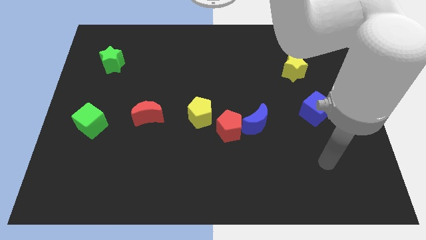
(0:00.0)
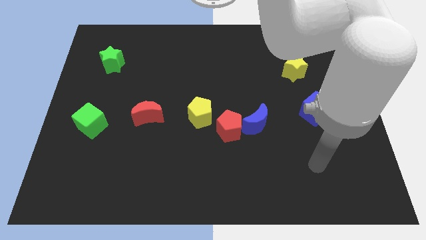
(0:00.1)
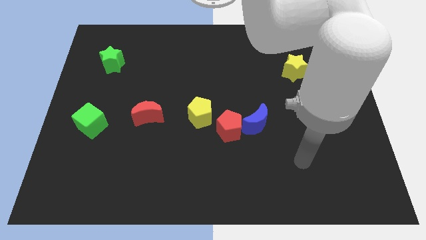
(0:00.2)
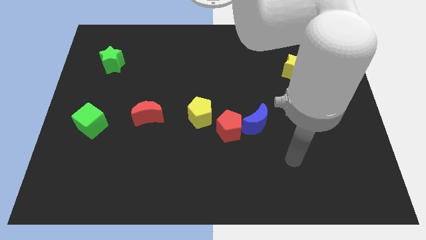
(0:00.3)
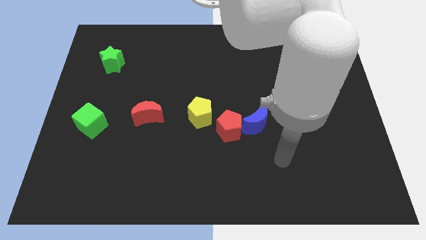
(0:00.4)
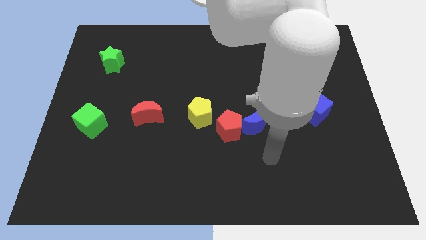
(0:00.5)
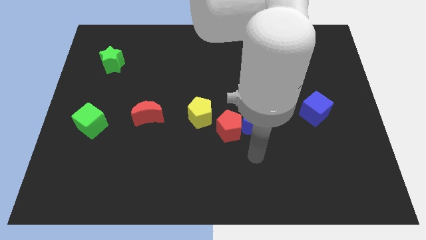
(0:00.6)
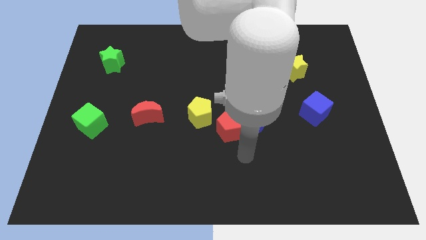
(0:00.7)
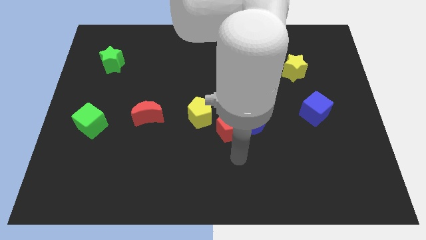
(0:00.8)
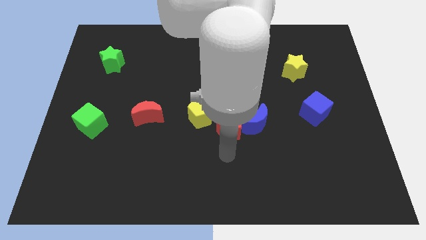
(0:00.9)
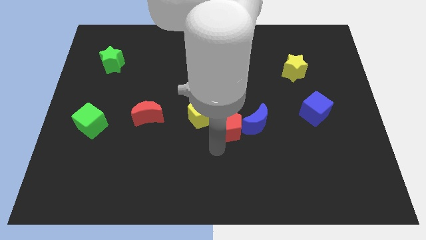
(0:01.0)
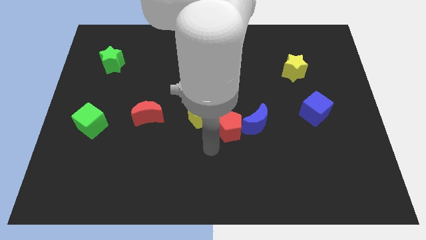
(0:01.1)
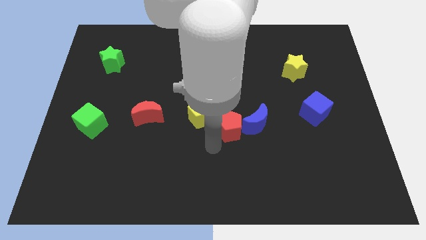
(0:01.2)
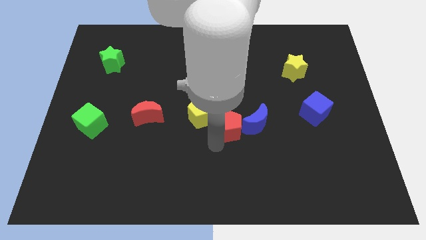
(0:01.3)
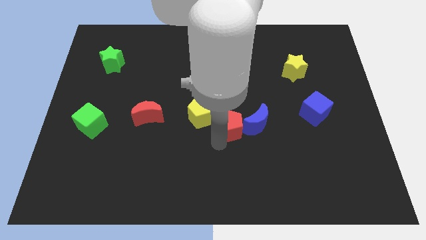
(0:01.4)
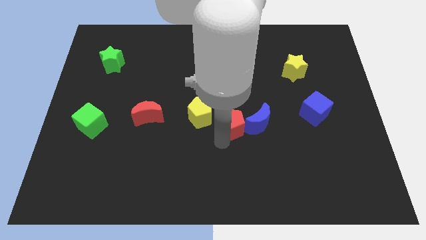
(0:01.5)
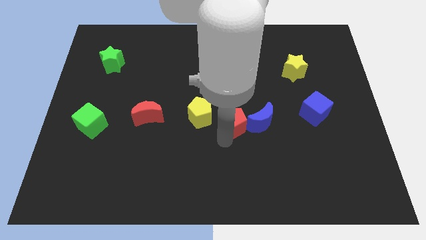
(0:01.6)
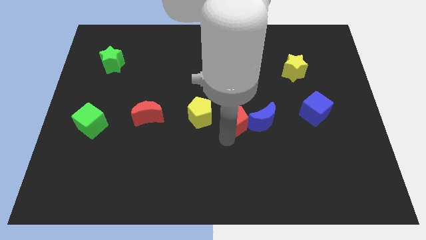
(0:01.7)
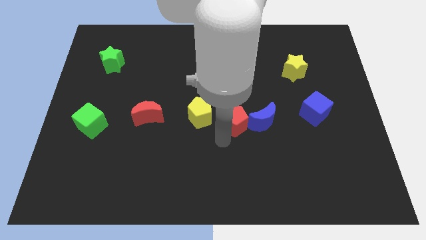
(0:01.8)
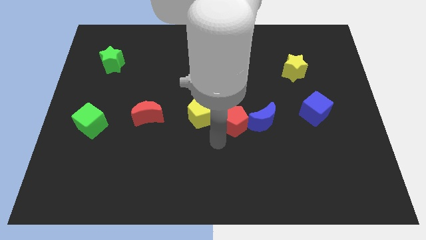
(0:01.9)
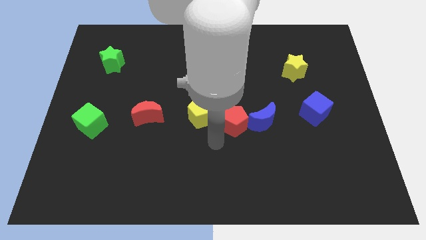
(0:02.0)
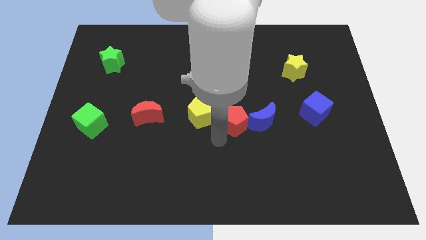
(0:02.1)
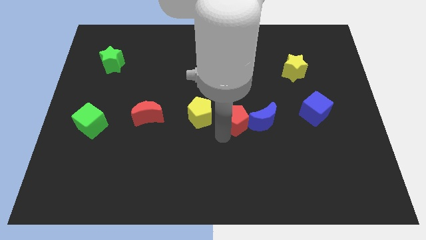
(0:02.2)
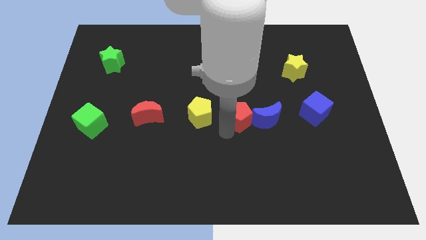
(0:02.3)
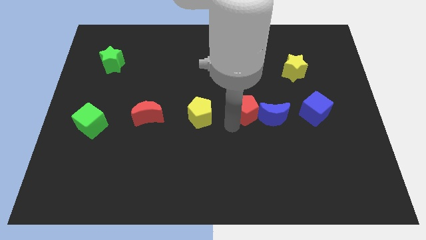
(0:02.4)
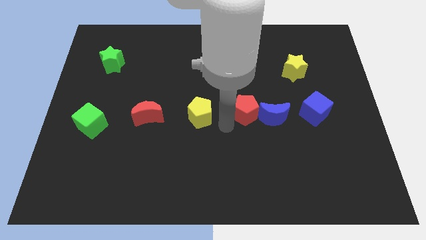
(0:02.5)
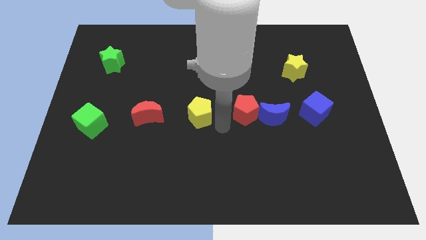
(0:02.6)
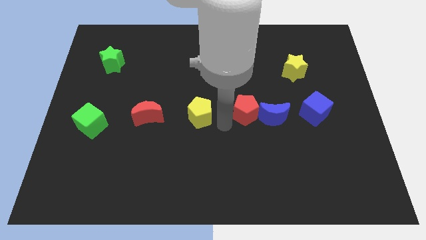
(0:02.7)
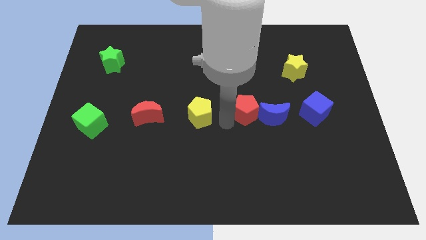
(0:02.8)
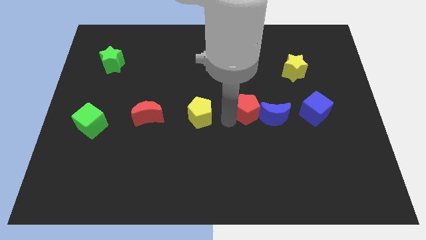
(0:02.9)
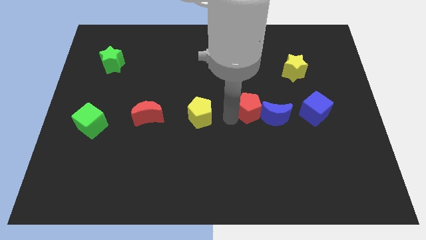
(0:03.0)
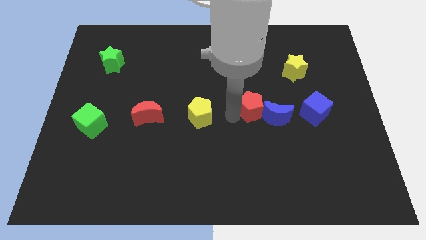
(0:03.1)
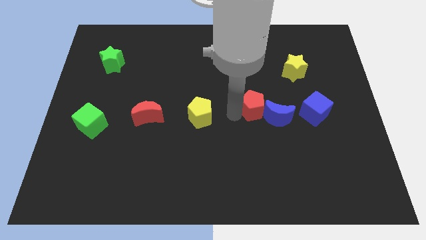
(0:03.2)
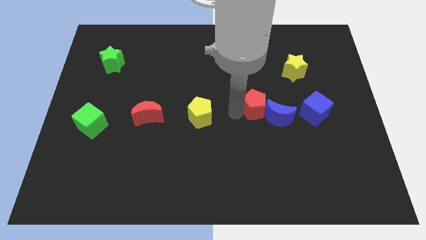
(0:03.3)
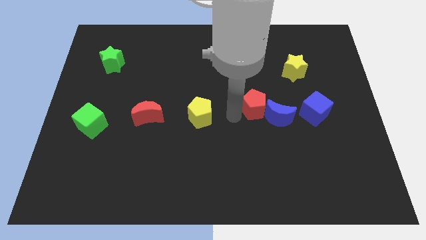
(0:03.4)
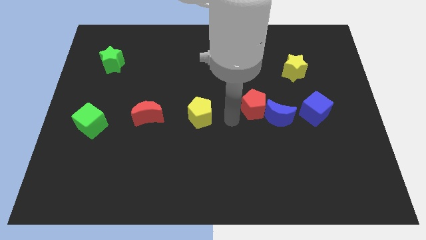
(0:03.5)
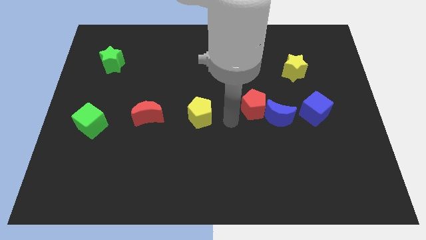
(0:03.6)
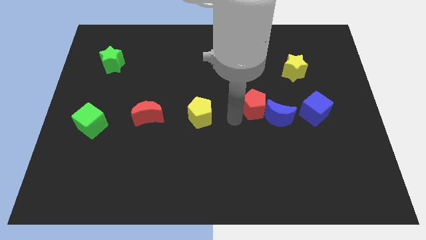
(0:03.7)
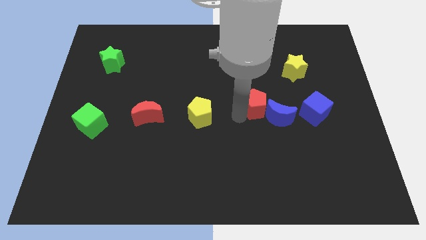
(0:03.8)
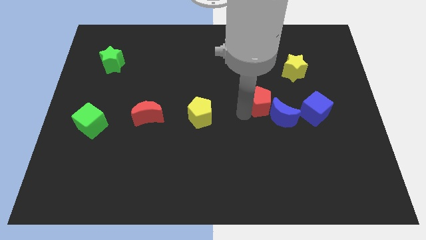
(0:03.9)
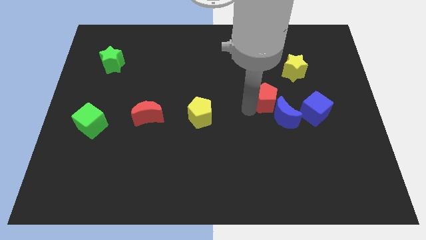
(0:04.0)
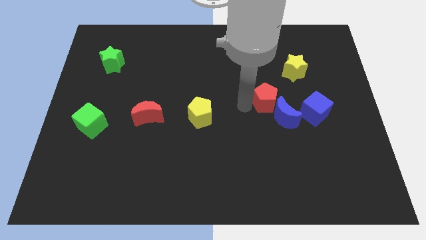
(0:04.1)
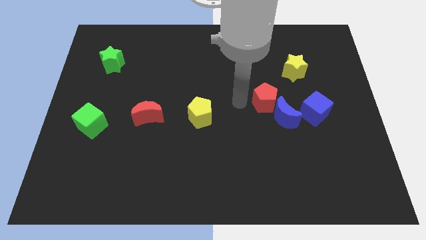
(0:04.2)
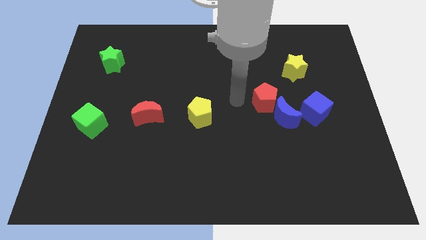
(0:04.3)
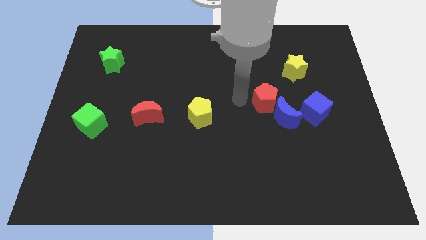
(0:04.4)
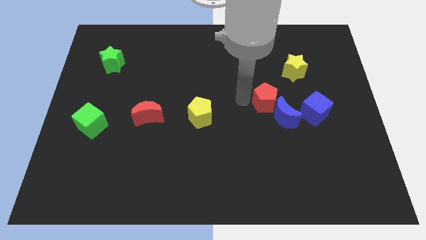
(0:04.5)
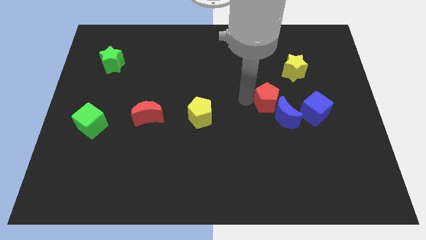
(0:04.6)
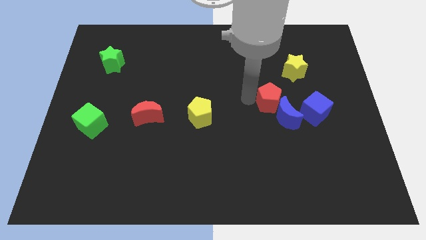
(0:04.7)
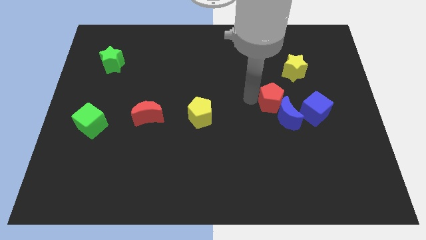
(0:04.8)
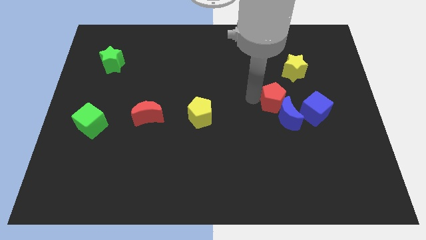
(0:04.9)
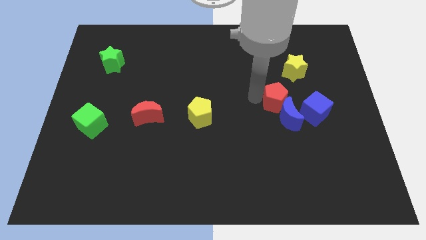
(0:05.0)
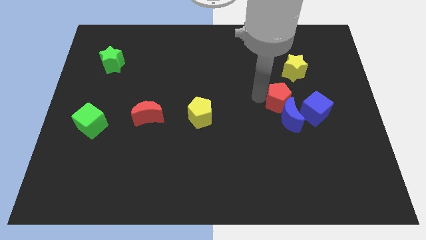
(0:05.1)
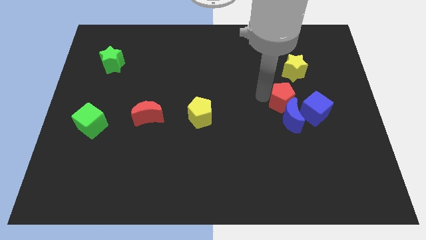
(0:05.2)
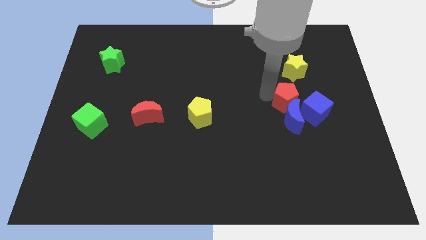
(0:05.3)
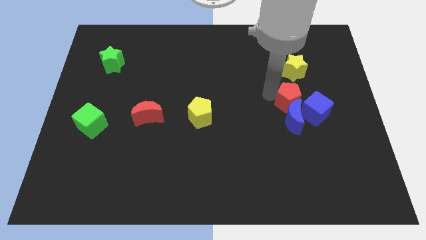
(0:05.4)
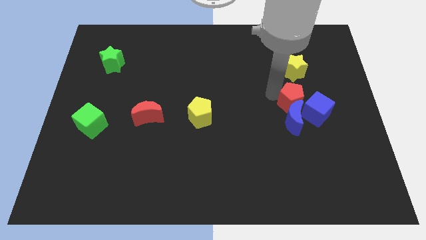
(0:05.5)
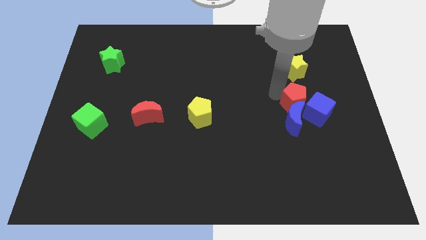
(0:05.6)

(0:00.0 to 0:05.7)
slide the red pentagon towards the blue cube
